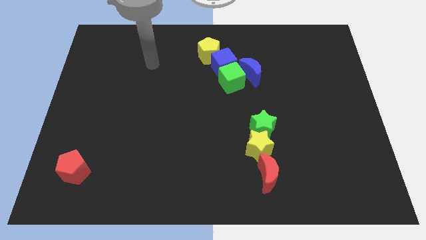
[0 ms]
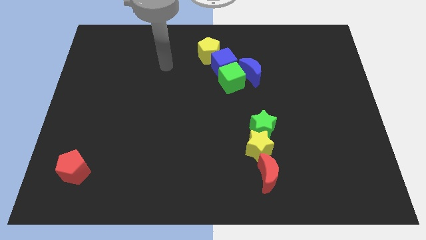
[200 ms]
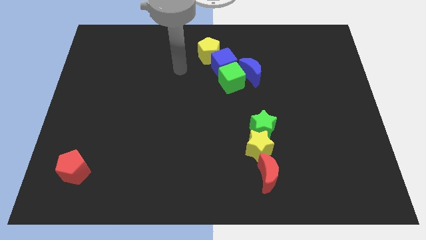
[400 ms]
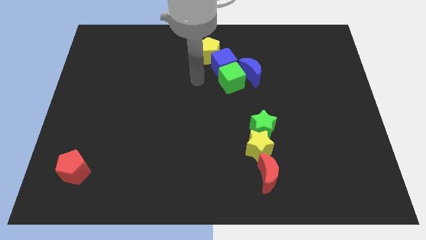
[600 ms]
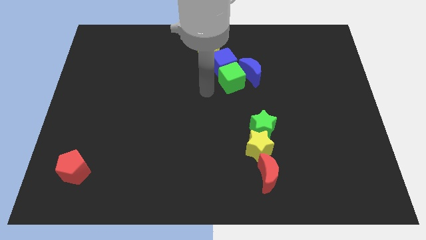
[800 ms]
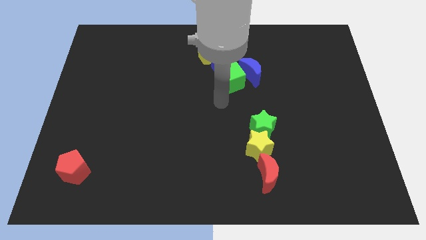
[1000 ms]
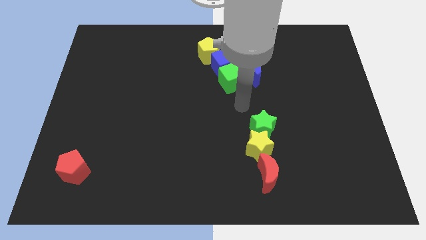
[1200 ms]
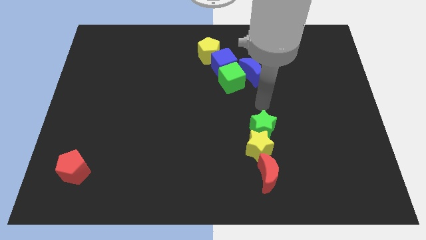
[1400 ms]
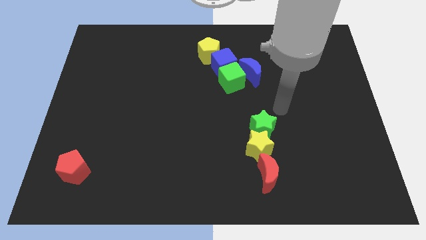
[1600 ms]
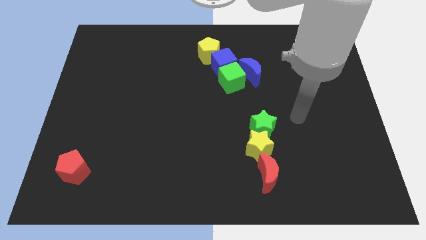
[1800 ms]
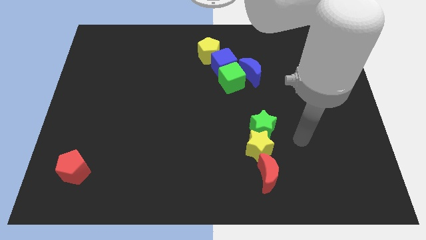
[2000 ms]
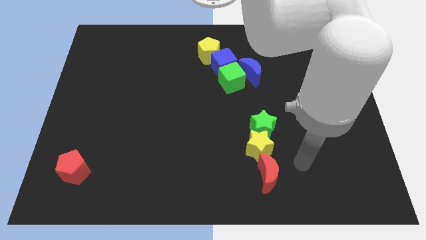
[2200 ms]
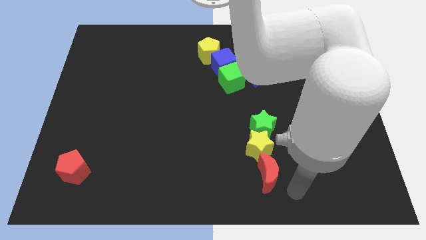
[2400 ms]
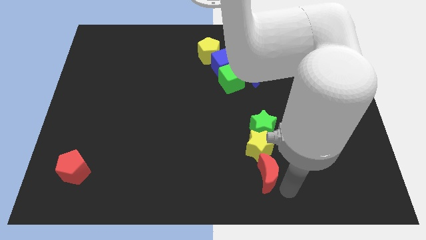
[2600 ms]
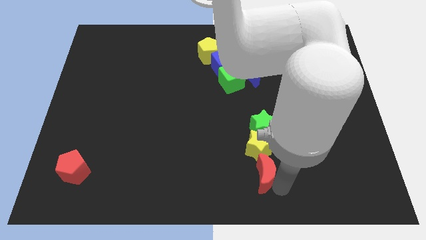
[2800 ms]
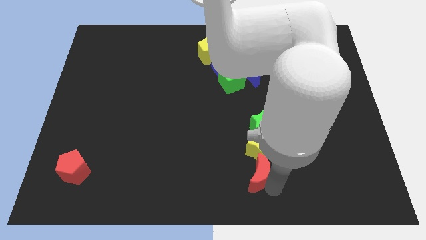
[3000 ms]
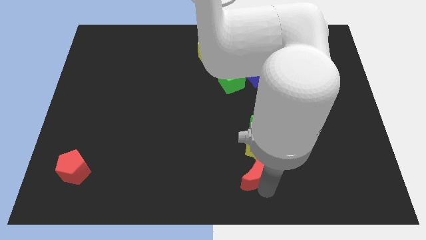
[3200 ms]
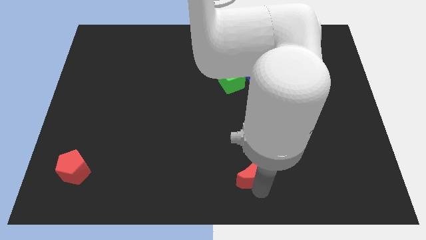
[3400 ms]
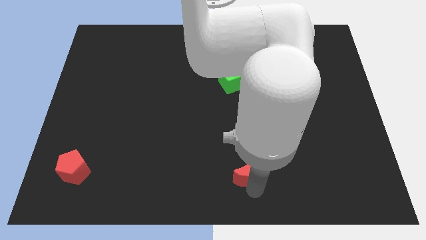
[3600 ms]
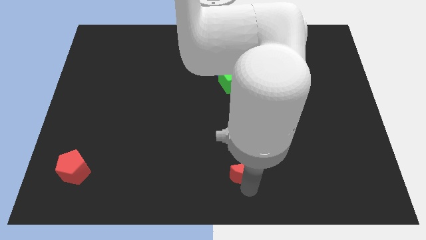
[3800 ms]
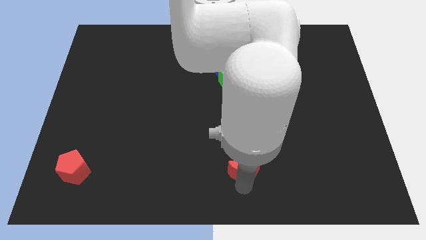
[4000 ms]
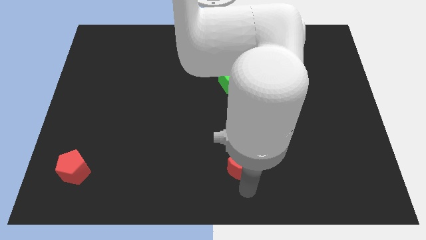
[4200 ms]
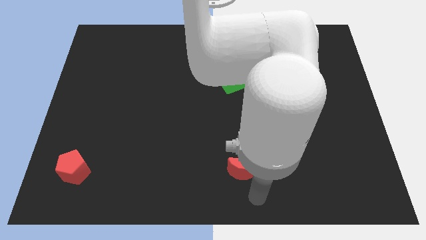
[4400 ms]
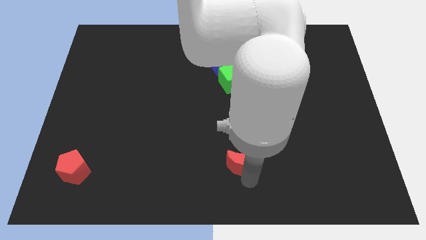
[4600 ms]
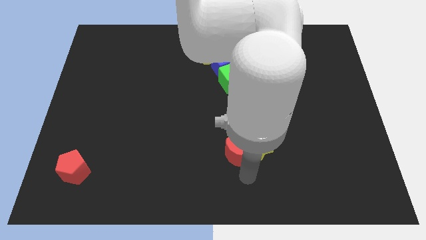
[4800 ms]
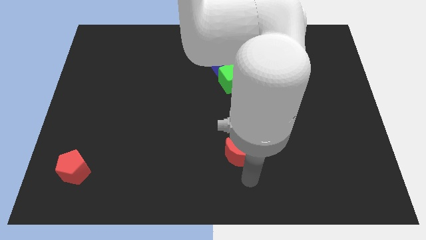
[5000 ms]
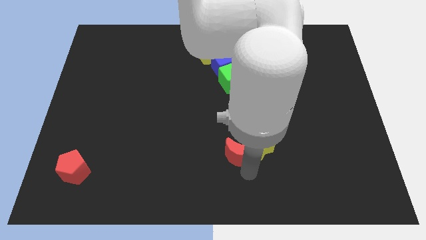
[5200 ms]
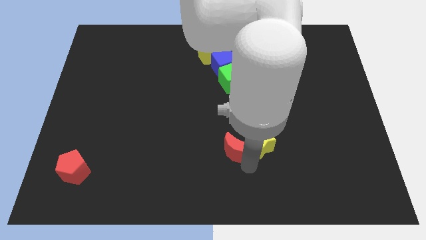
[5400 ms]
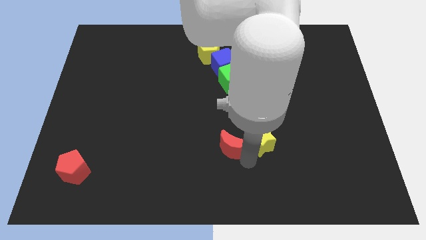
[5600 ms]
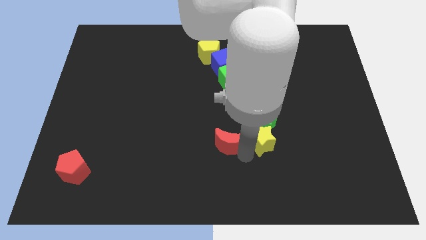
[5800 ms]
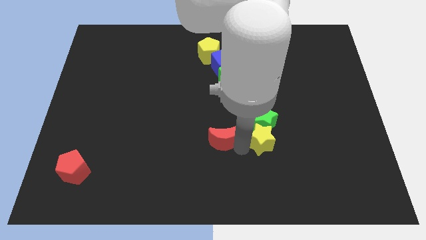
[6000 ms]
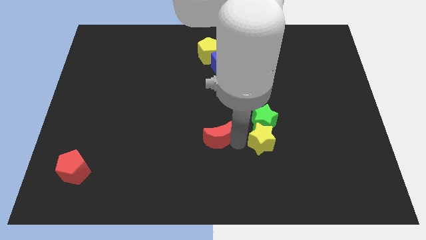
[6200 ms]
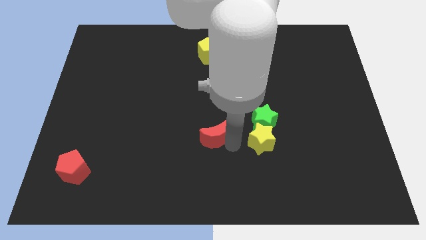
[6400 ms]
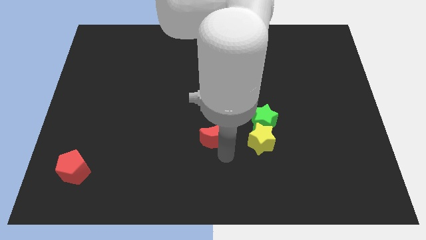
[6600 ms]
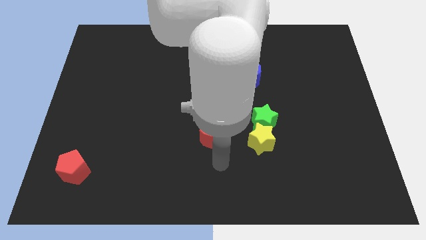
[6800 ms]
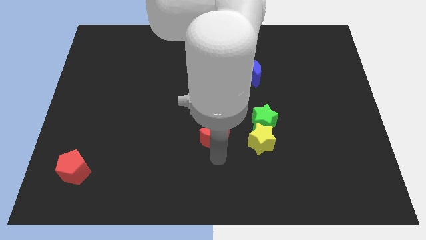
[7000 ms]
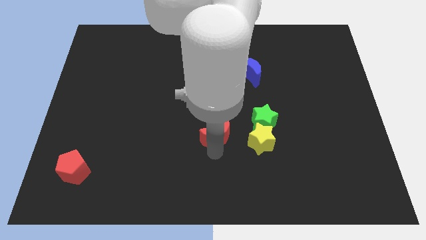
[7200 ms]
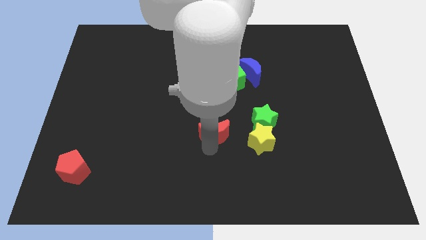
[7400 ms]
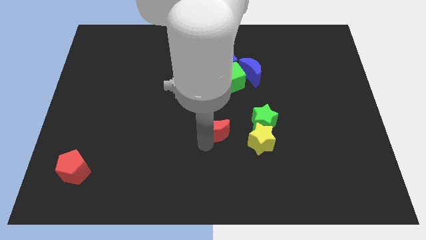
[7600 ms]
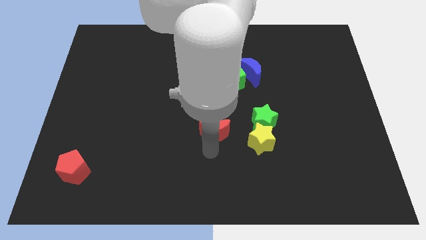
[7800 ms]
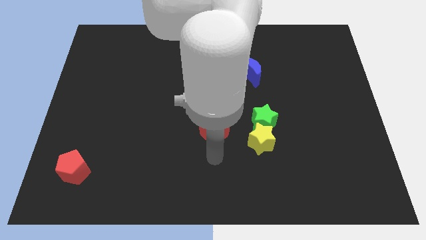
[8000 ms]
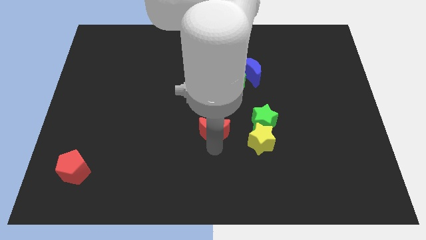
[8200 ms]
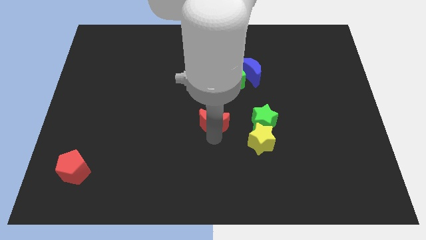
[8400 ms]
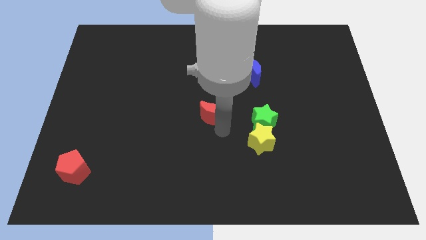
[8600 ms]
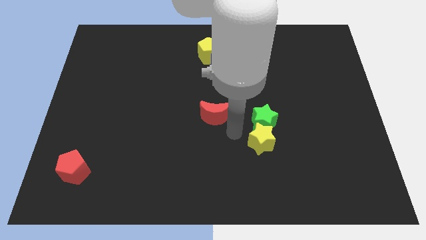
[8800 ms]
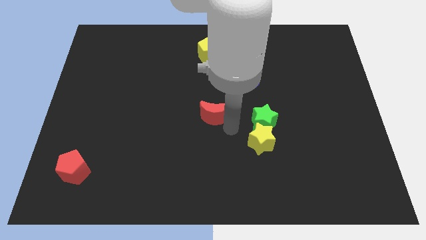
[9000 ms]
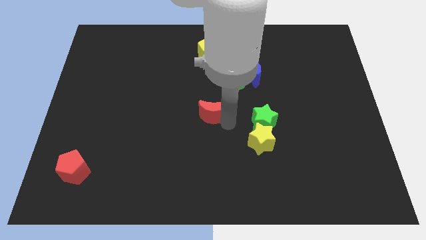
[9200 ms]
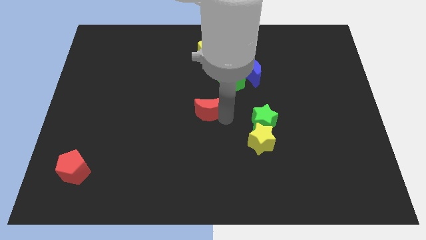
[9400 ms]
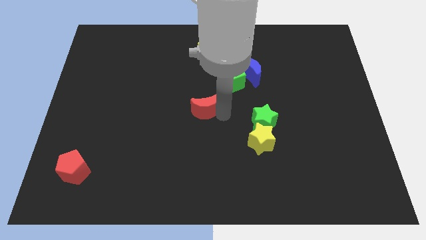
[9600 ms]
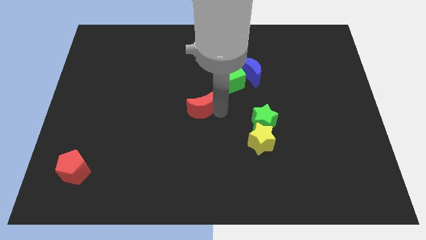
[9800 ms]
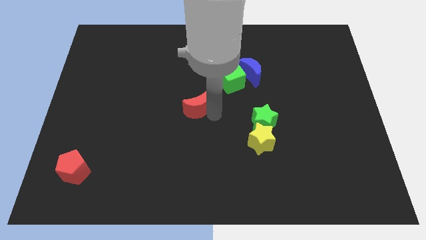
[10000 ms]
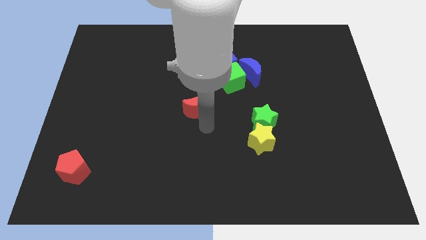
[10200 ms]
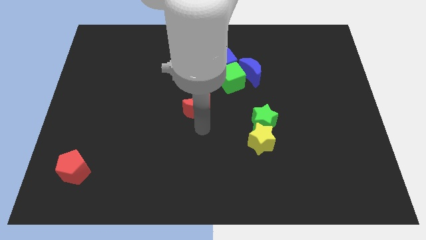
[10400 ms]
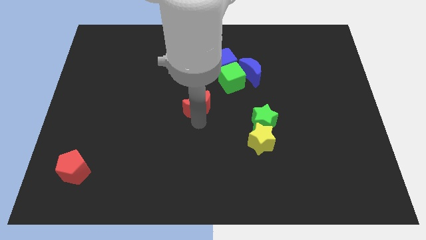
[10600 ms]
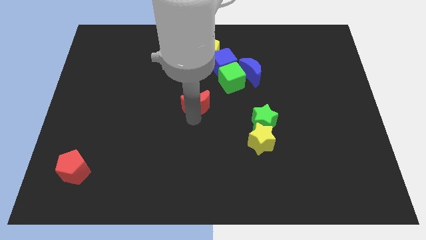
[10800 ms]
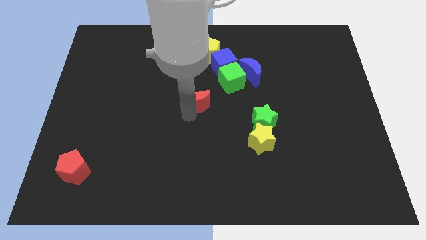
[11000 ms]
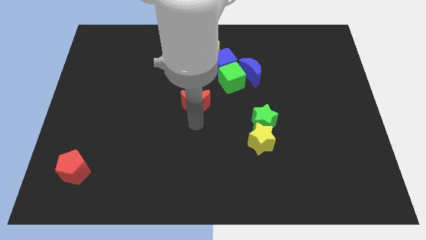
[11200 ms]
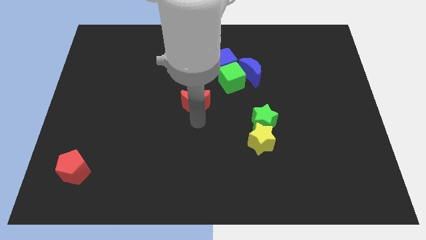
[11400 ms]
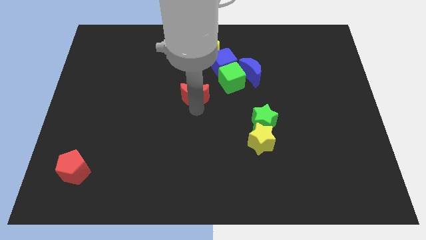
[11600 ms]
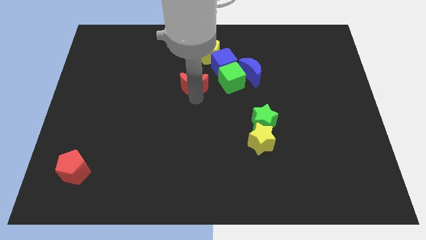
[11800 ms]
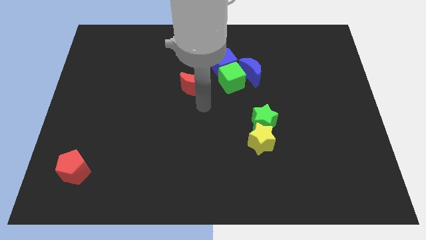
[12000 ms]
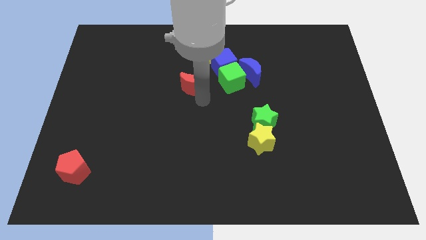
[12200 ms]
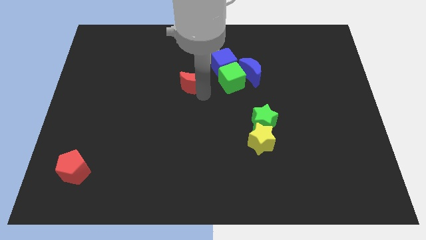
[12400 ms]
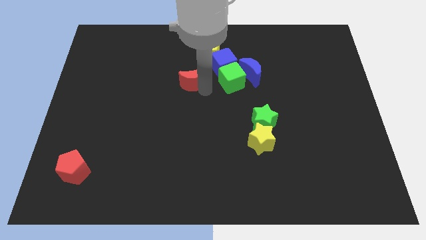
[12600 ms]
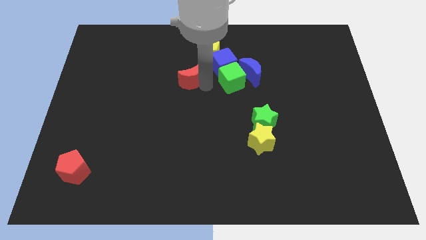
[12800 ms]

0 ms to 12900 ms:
move the red moon to the left side of the blue cube

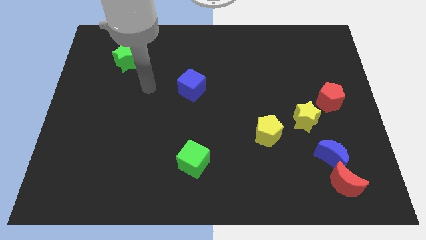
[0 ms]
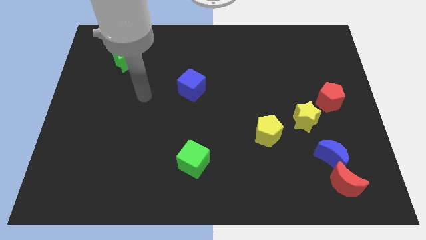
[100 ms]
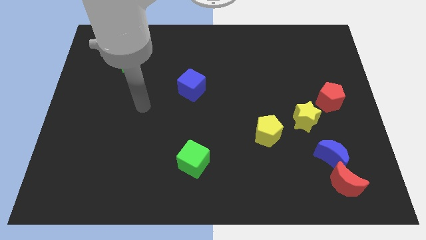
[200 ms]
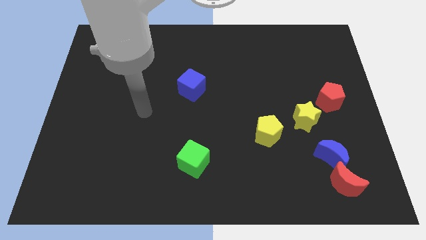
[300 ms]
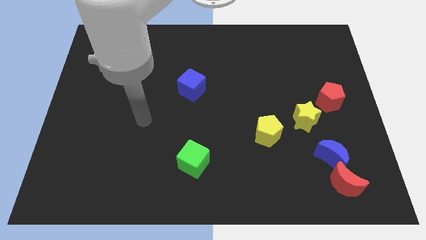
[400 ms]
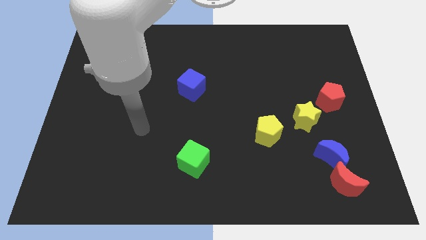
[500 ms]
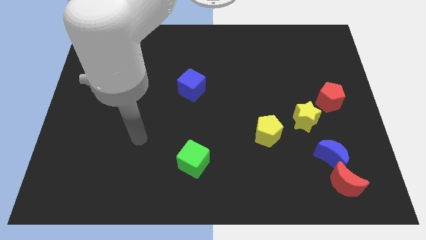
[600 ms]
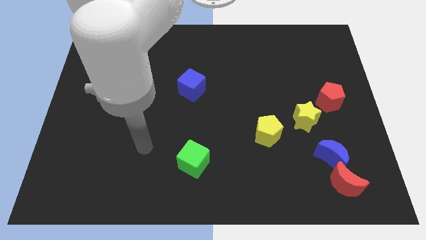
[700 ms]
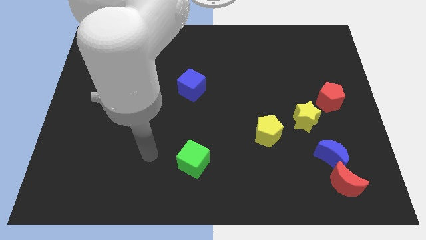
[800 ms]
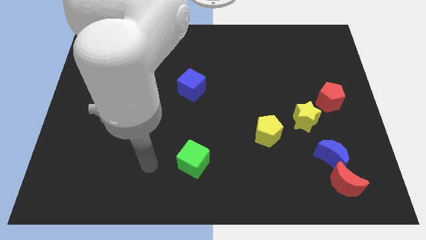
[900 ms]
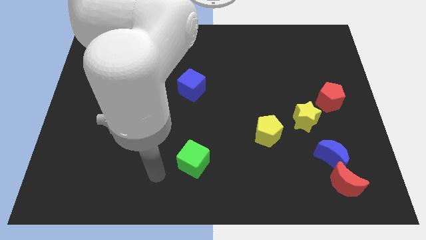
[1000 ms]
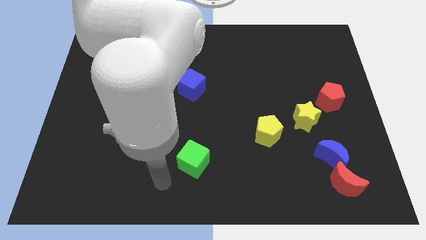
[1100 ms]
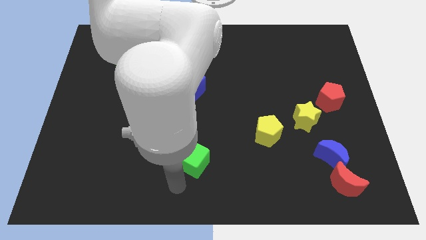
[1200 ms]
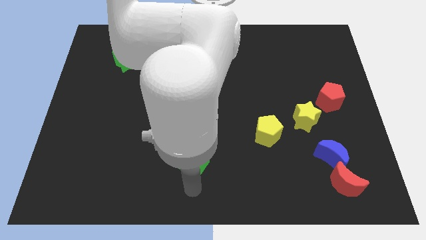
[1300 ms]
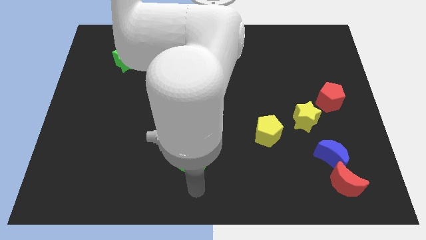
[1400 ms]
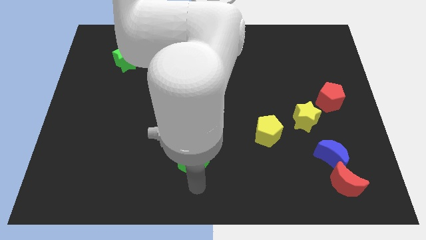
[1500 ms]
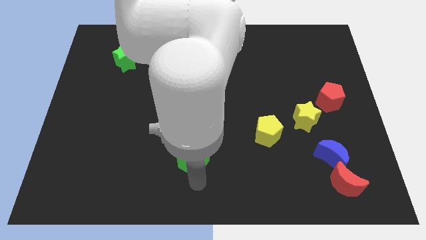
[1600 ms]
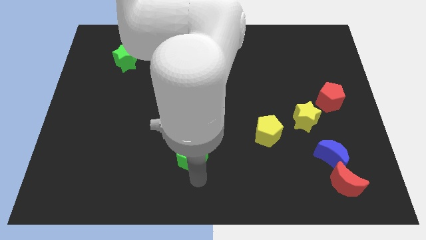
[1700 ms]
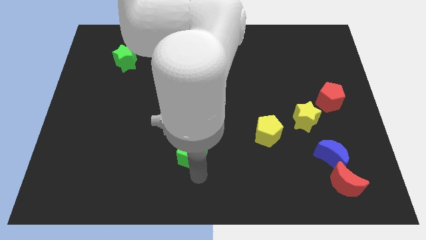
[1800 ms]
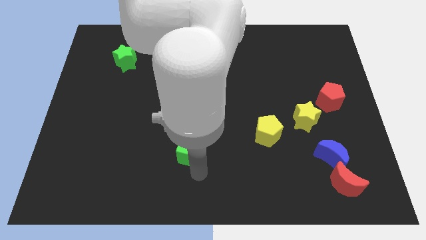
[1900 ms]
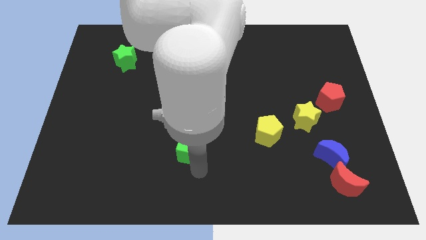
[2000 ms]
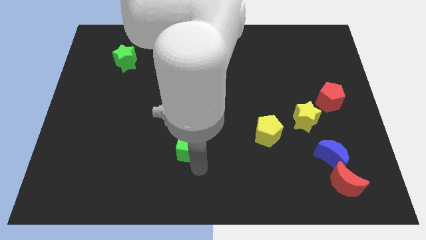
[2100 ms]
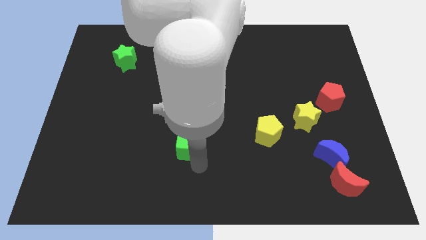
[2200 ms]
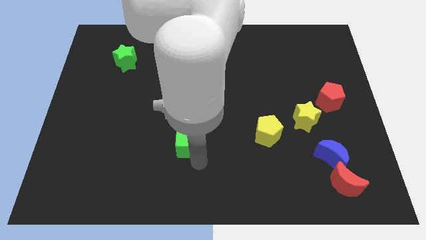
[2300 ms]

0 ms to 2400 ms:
push the green cube below the blue cube
